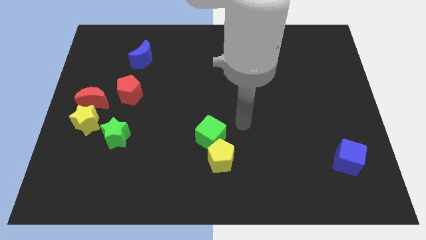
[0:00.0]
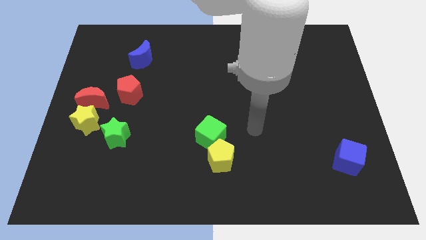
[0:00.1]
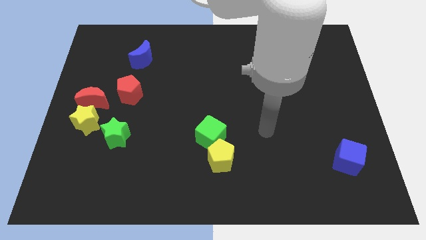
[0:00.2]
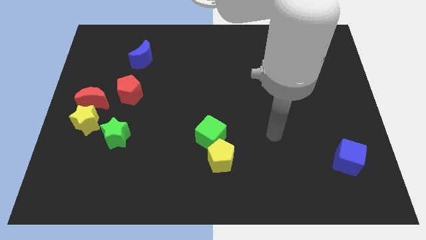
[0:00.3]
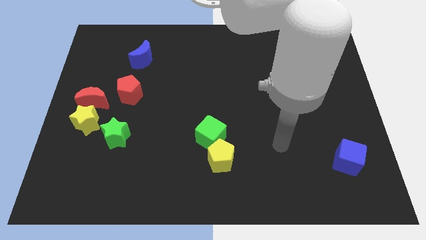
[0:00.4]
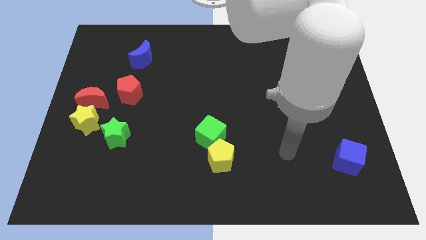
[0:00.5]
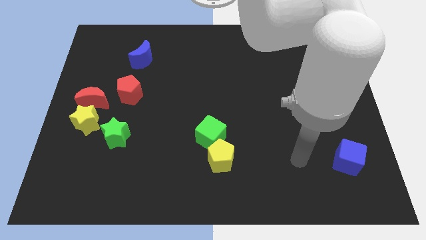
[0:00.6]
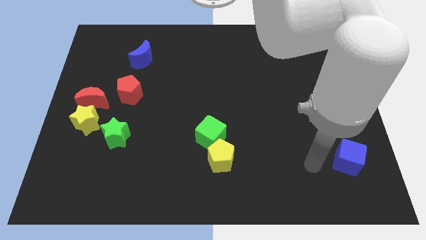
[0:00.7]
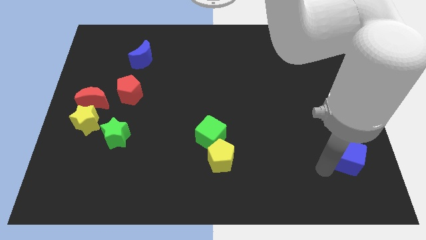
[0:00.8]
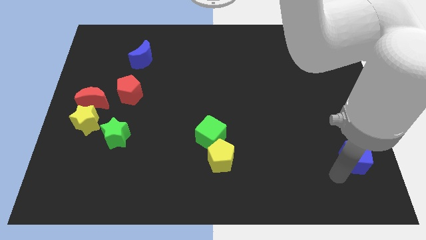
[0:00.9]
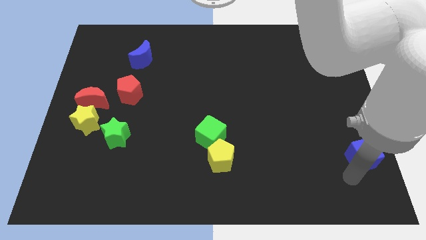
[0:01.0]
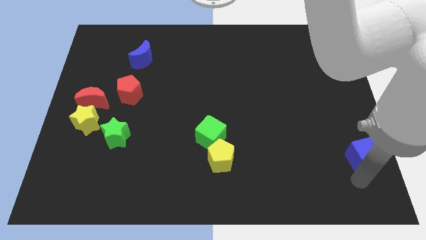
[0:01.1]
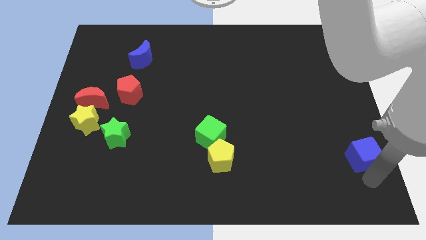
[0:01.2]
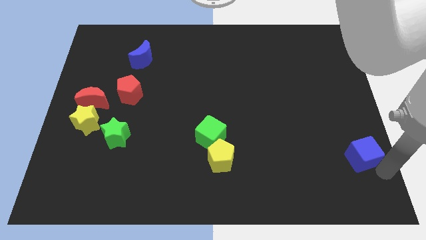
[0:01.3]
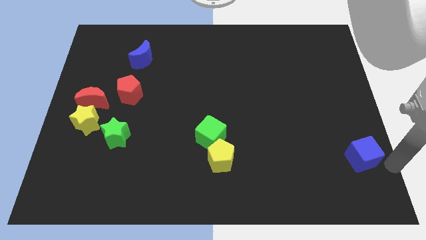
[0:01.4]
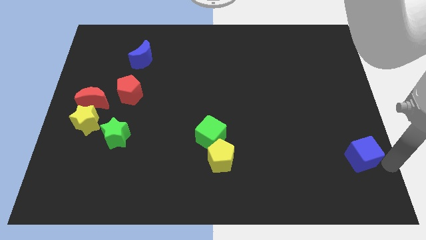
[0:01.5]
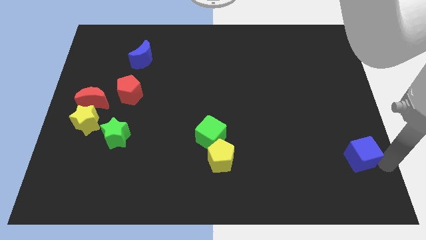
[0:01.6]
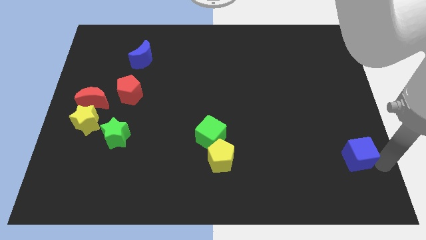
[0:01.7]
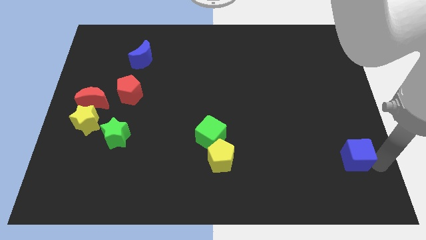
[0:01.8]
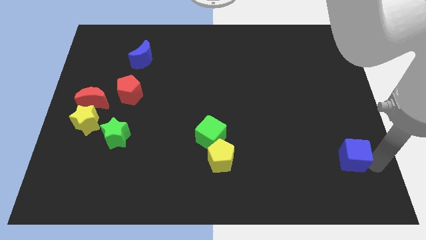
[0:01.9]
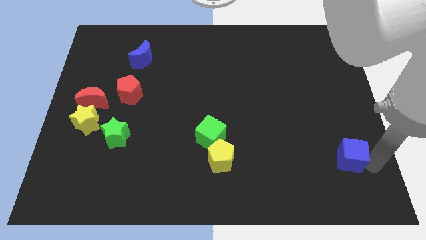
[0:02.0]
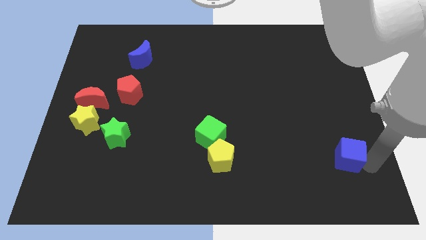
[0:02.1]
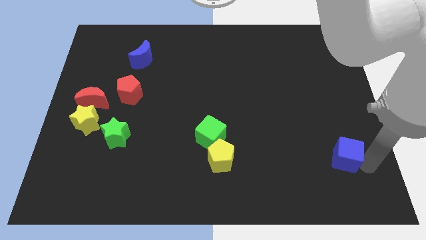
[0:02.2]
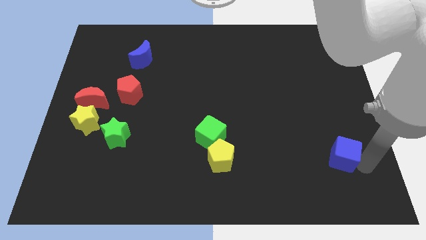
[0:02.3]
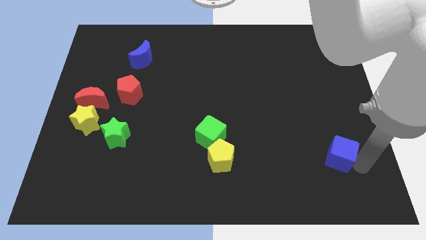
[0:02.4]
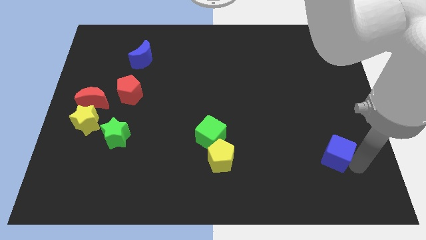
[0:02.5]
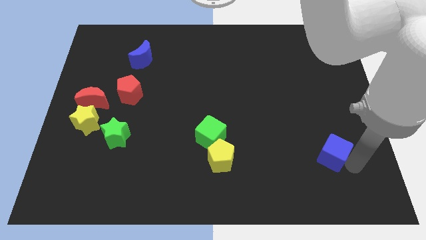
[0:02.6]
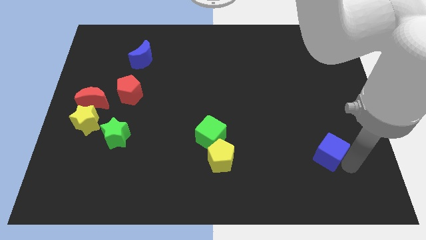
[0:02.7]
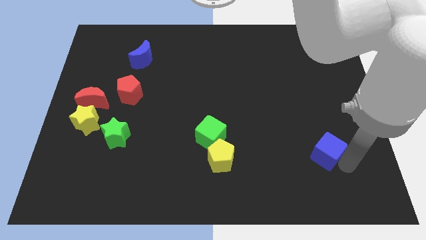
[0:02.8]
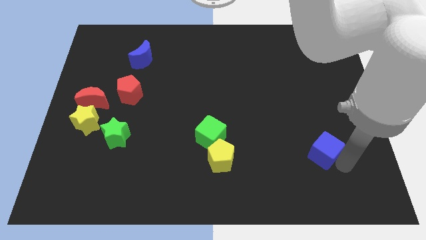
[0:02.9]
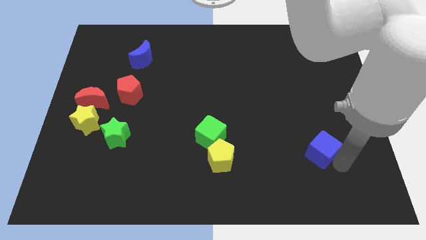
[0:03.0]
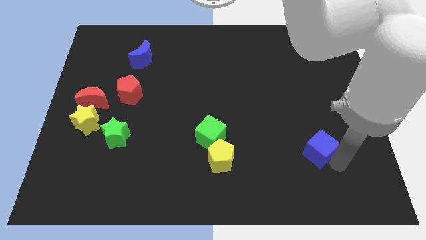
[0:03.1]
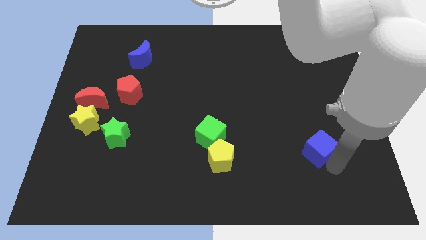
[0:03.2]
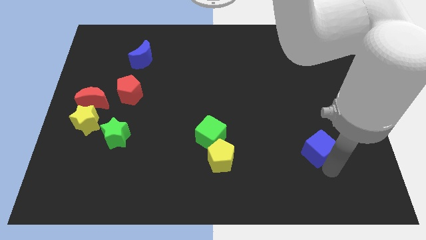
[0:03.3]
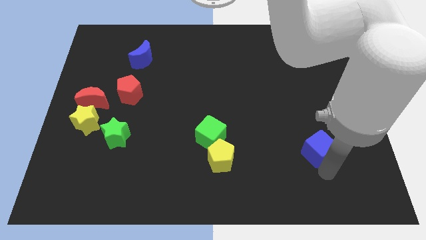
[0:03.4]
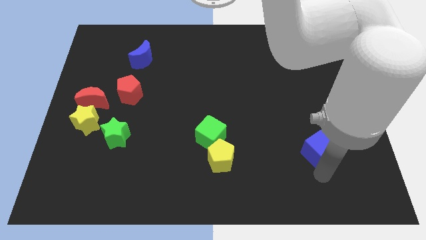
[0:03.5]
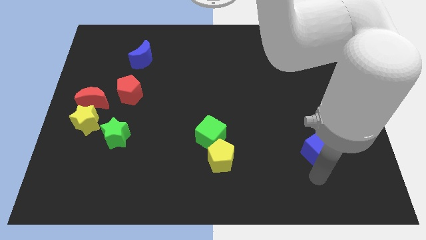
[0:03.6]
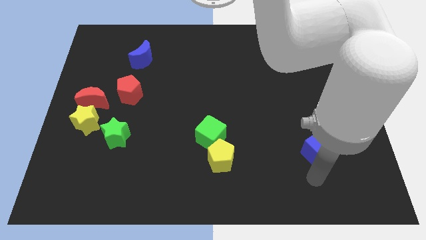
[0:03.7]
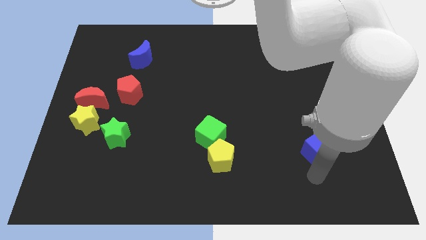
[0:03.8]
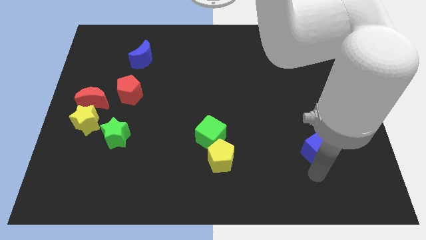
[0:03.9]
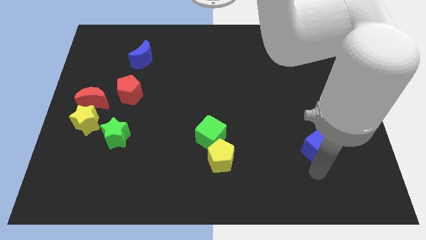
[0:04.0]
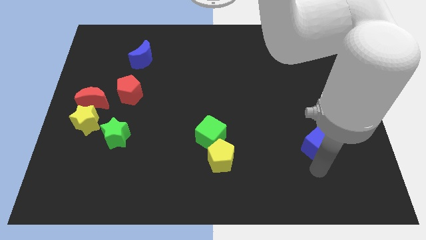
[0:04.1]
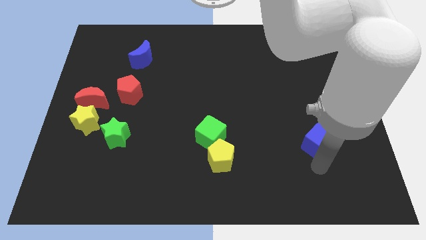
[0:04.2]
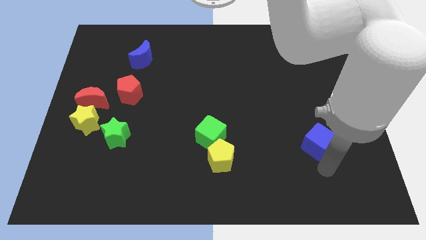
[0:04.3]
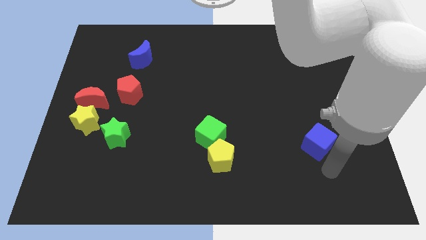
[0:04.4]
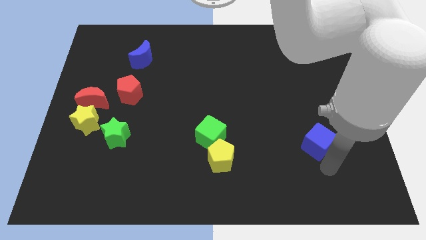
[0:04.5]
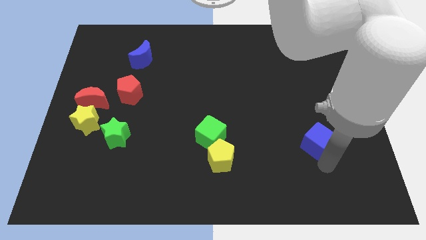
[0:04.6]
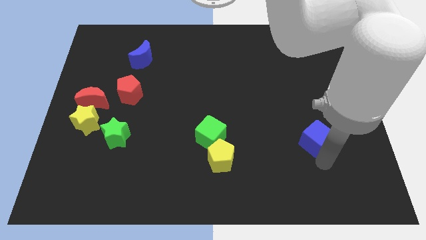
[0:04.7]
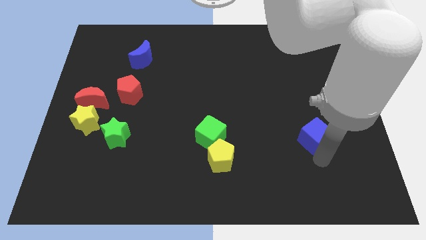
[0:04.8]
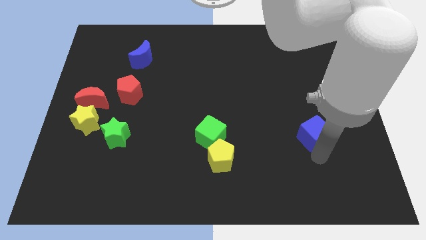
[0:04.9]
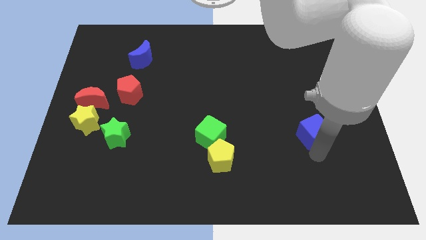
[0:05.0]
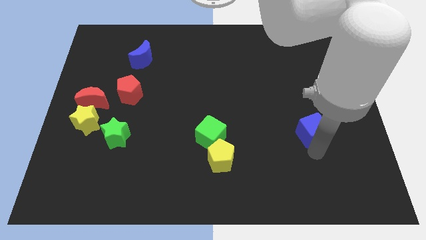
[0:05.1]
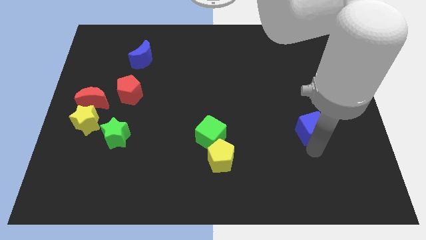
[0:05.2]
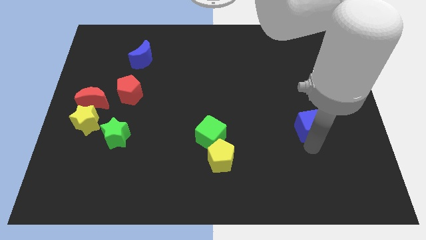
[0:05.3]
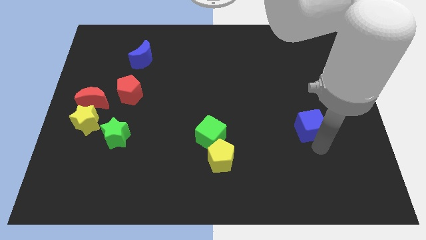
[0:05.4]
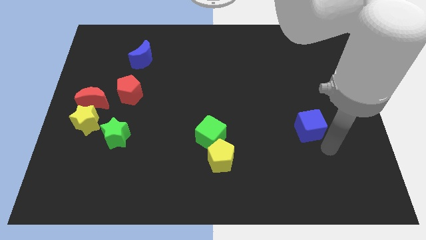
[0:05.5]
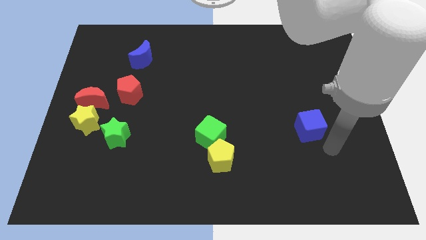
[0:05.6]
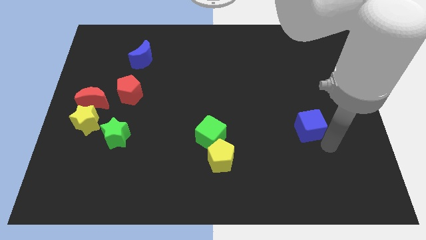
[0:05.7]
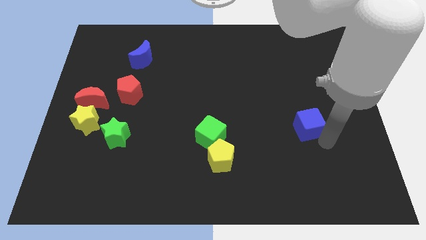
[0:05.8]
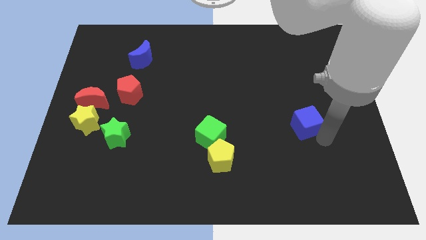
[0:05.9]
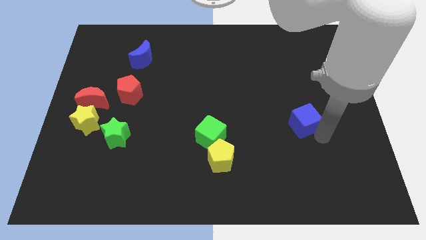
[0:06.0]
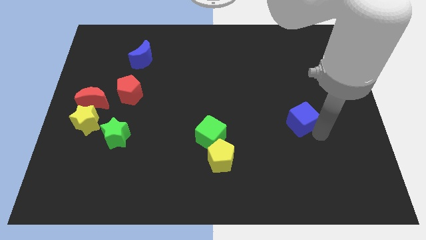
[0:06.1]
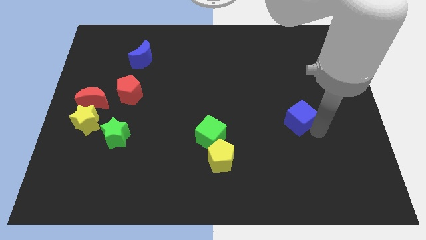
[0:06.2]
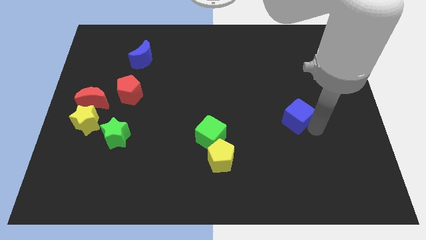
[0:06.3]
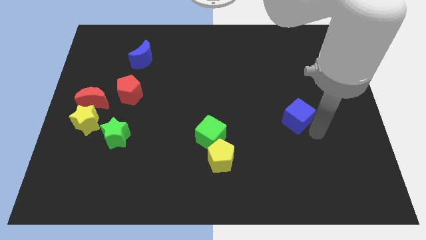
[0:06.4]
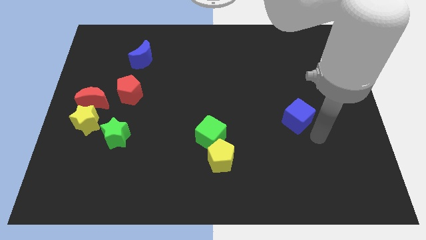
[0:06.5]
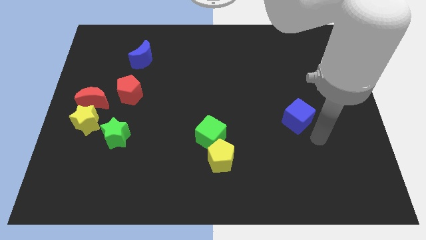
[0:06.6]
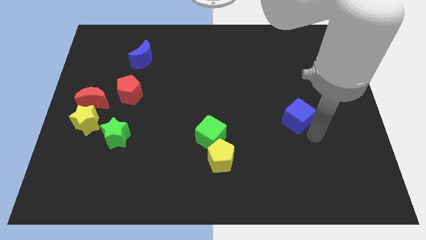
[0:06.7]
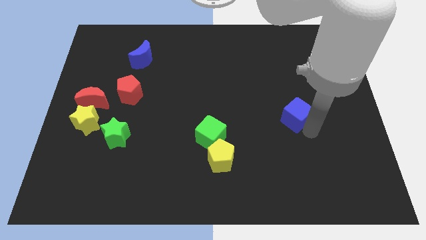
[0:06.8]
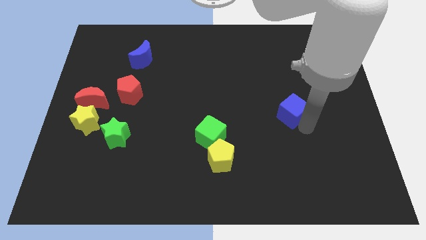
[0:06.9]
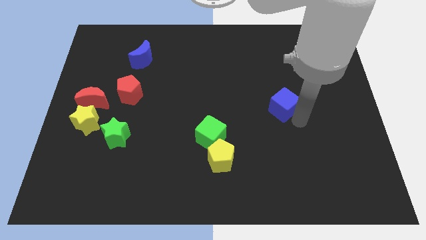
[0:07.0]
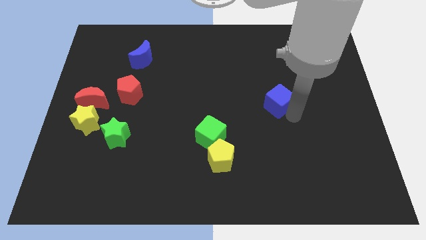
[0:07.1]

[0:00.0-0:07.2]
move the blue cube upwards and to the left

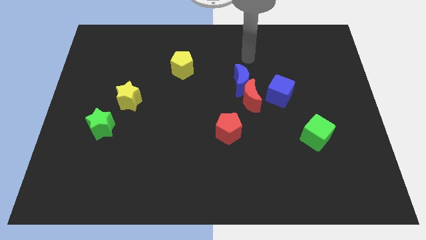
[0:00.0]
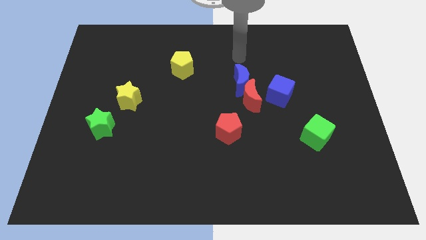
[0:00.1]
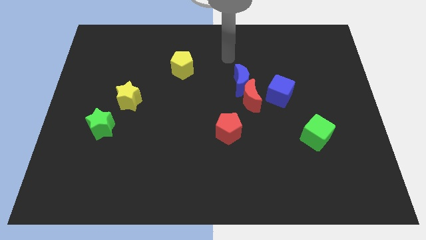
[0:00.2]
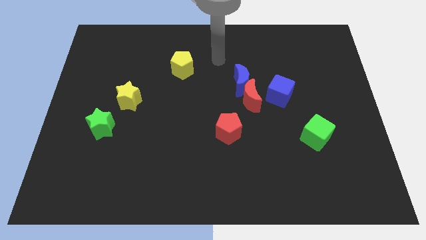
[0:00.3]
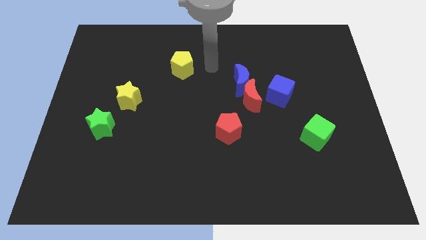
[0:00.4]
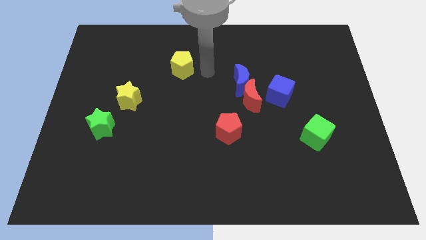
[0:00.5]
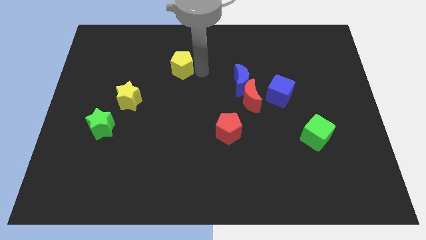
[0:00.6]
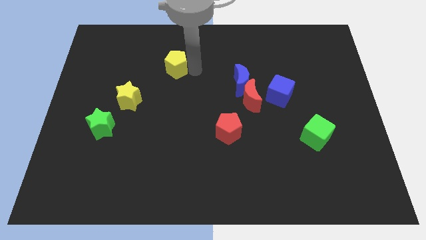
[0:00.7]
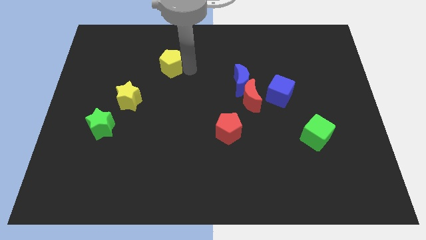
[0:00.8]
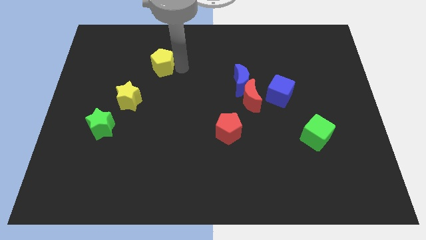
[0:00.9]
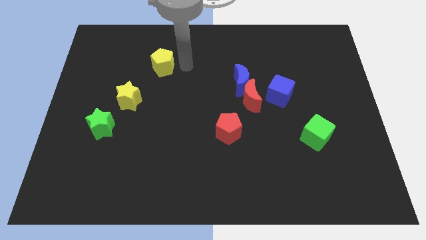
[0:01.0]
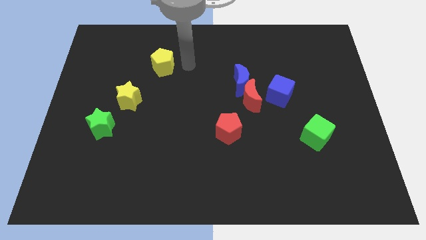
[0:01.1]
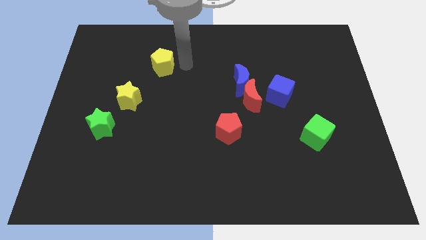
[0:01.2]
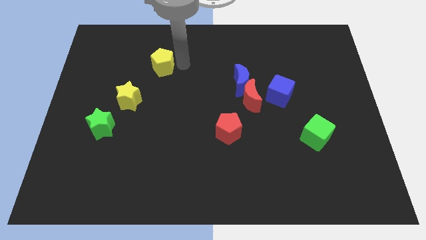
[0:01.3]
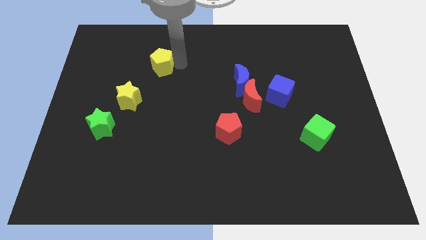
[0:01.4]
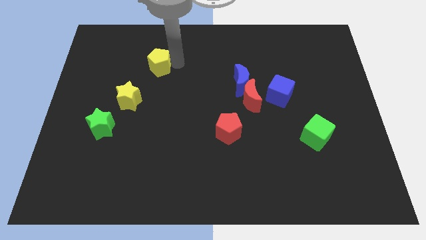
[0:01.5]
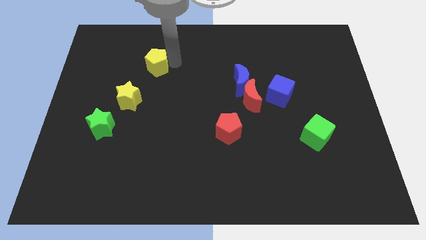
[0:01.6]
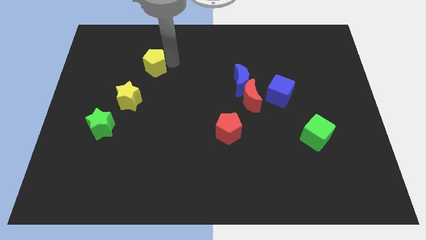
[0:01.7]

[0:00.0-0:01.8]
slightly move the yellow pentagon to the left
